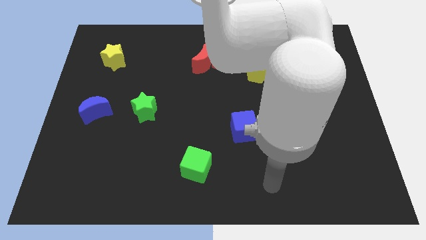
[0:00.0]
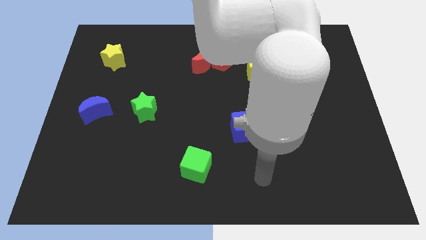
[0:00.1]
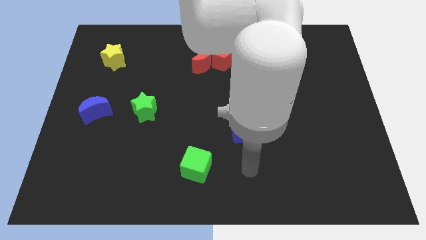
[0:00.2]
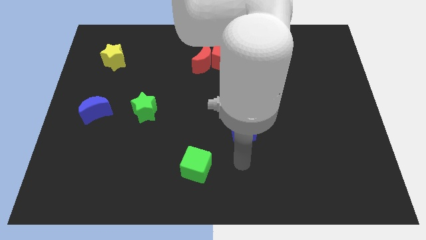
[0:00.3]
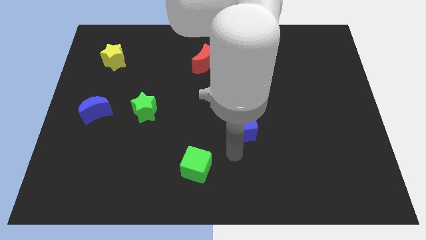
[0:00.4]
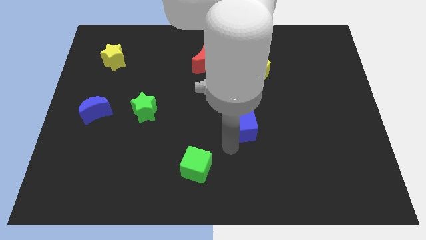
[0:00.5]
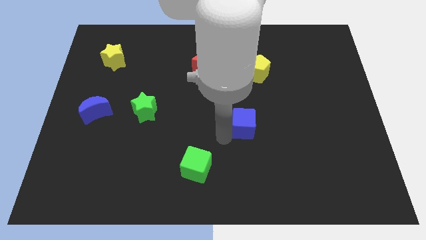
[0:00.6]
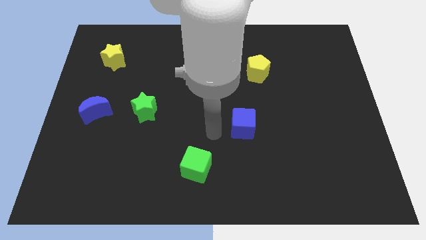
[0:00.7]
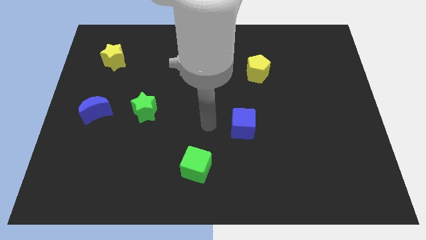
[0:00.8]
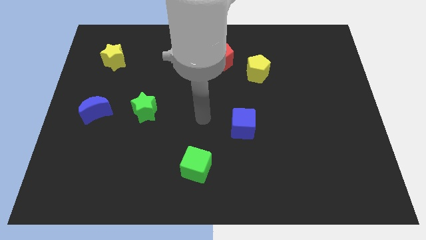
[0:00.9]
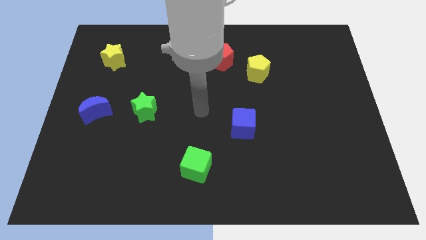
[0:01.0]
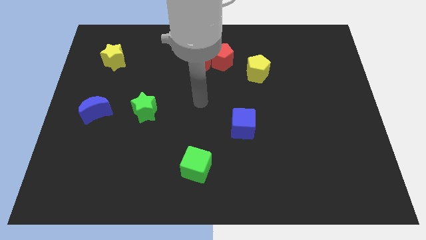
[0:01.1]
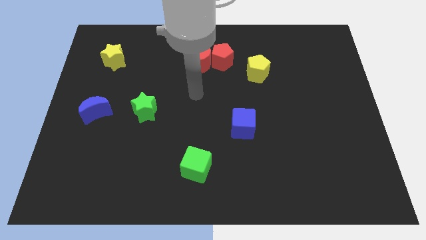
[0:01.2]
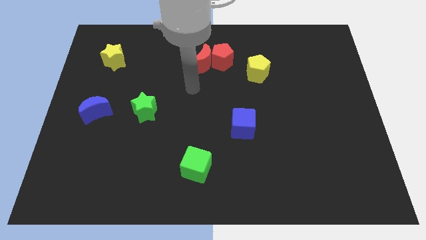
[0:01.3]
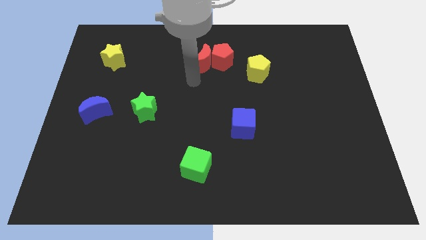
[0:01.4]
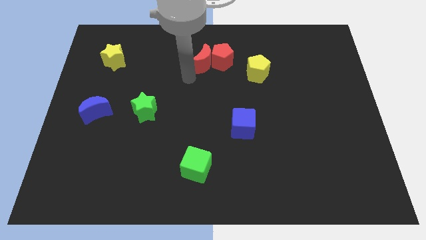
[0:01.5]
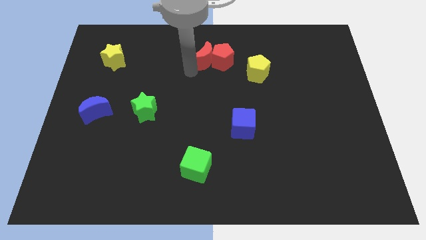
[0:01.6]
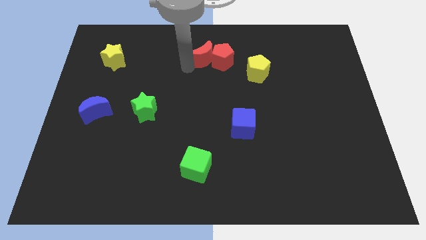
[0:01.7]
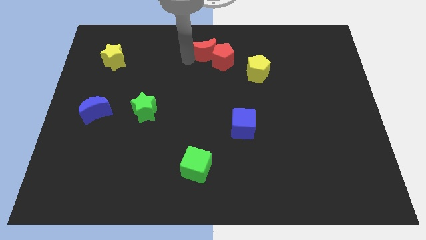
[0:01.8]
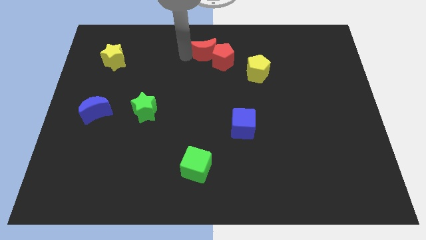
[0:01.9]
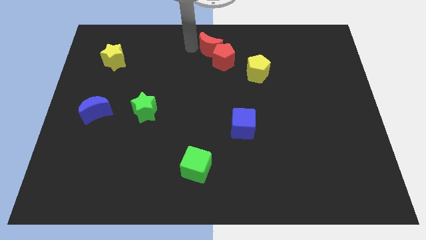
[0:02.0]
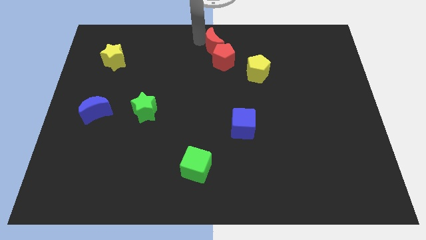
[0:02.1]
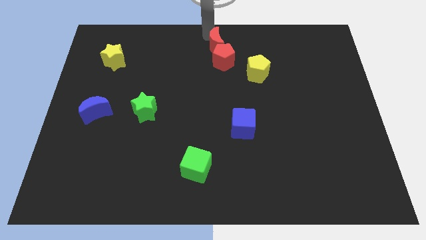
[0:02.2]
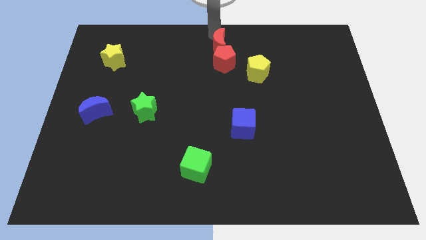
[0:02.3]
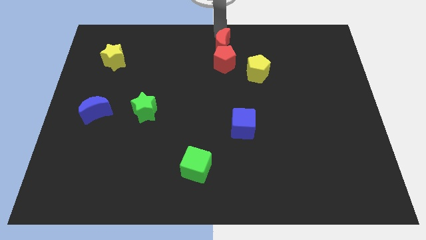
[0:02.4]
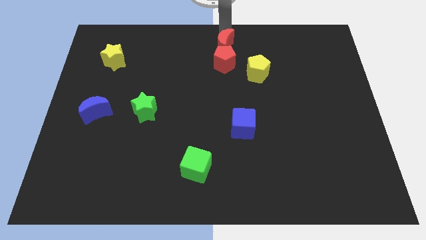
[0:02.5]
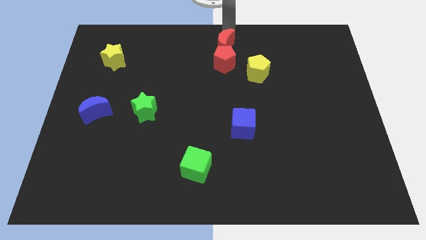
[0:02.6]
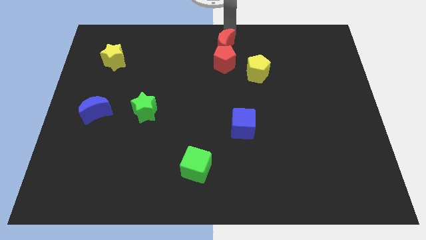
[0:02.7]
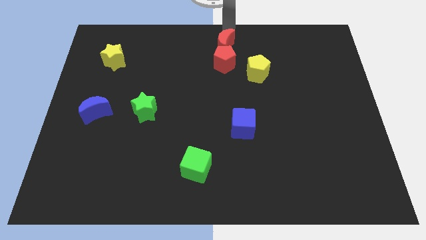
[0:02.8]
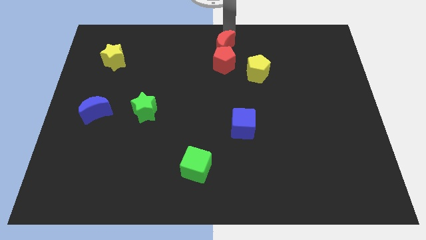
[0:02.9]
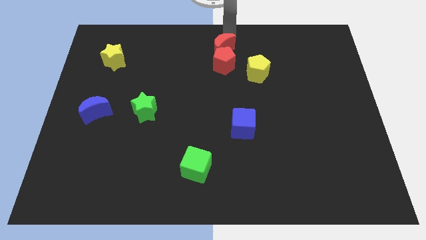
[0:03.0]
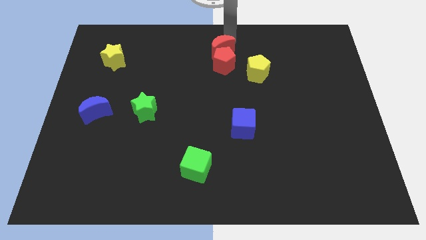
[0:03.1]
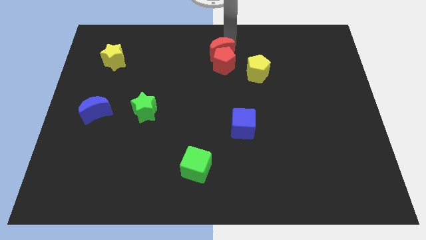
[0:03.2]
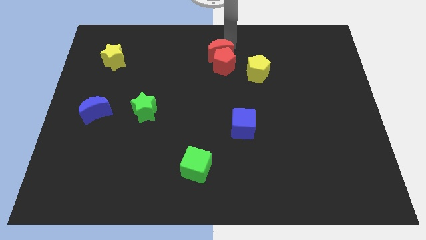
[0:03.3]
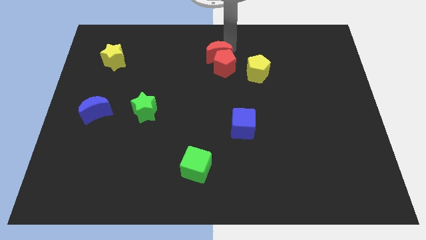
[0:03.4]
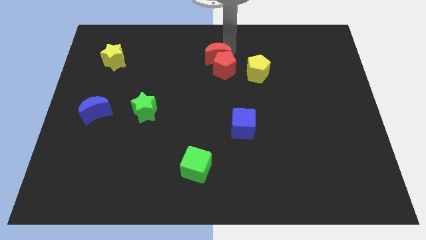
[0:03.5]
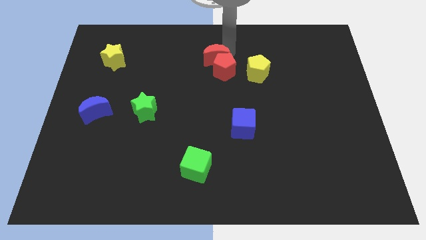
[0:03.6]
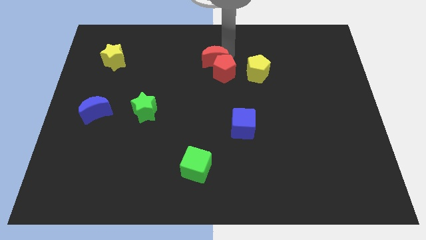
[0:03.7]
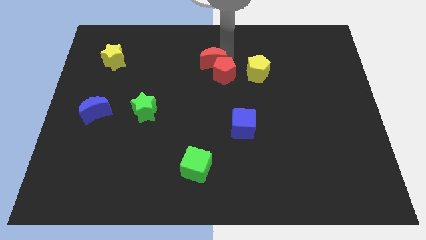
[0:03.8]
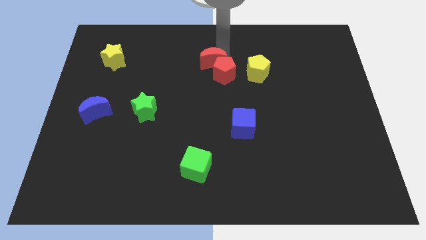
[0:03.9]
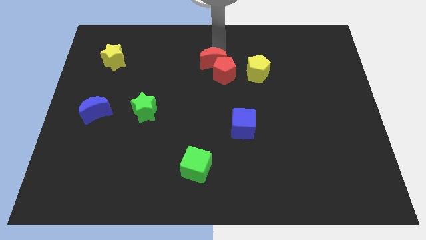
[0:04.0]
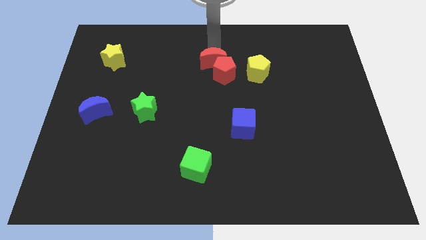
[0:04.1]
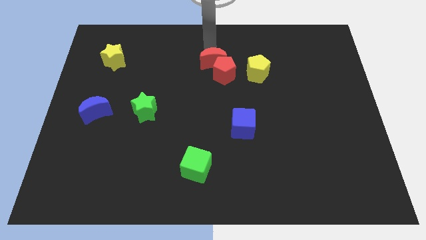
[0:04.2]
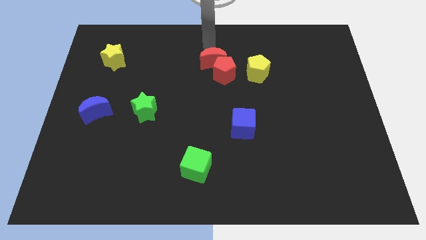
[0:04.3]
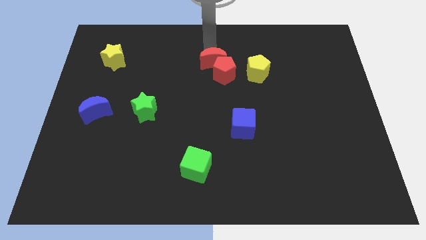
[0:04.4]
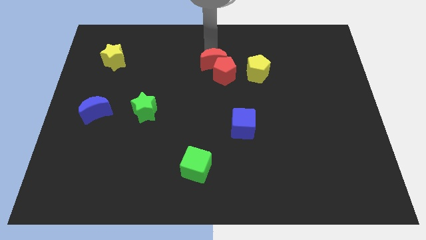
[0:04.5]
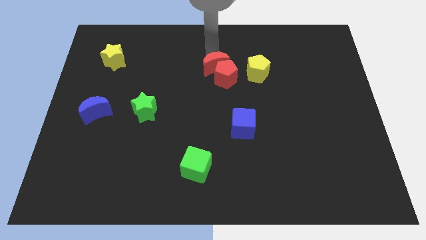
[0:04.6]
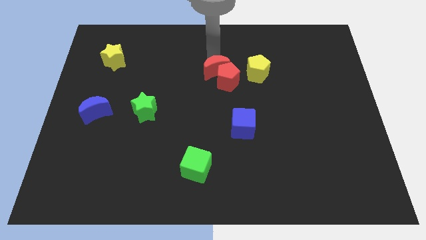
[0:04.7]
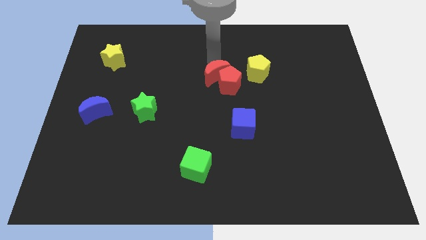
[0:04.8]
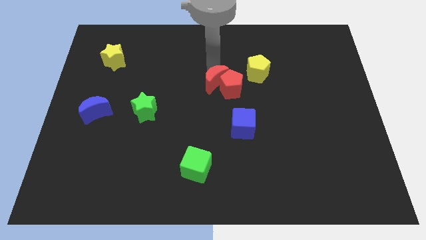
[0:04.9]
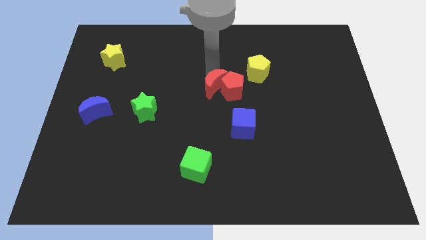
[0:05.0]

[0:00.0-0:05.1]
slightly slide the red moon diagonally downwards and right

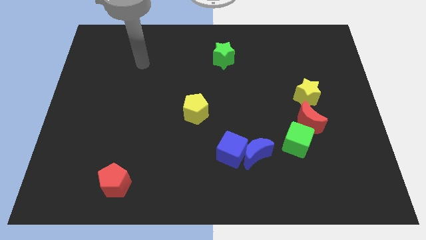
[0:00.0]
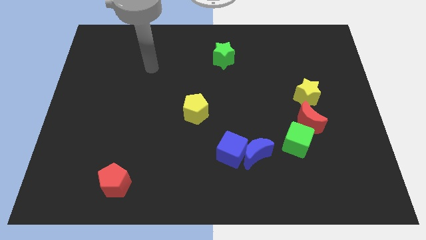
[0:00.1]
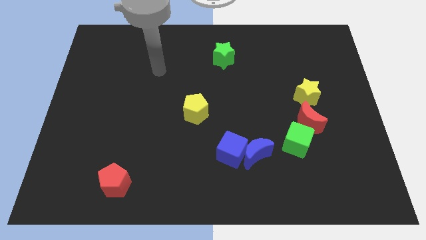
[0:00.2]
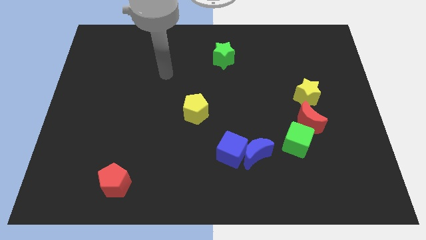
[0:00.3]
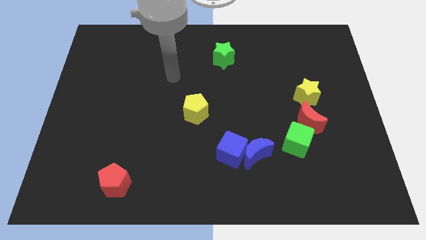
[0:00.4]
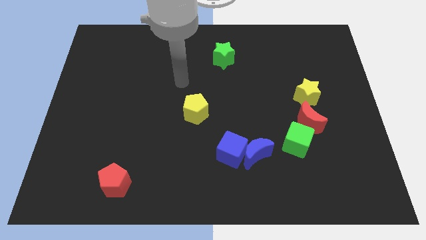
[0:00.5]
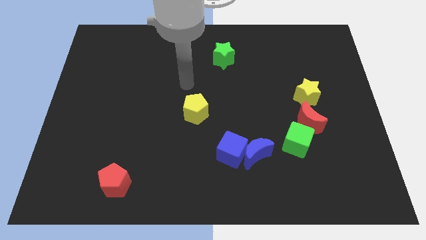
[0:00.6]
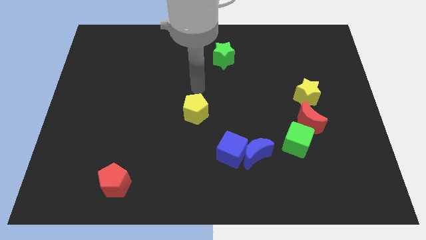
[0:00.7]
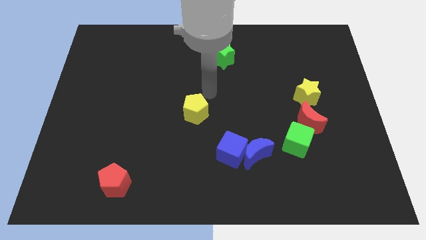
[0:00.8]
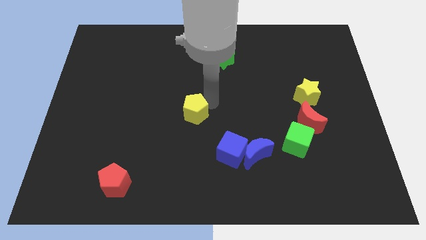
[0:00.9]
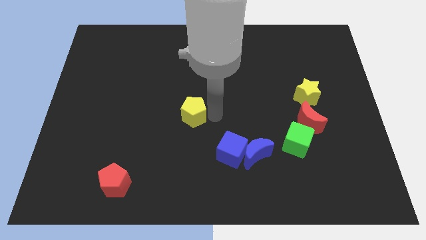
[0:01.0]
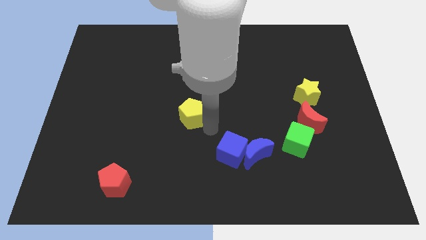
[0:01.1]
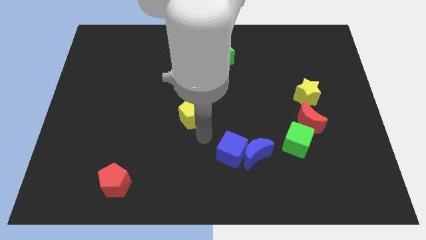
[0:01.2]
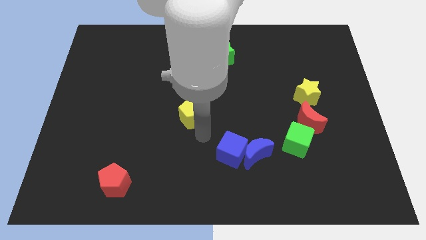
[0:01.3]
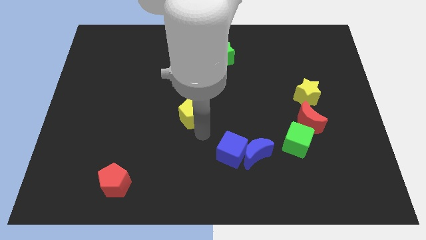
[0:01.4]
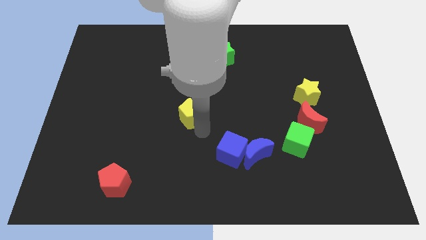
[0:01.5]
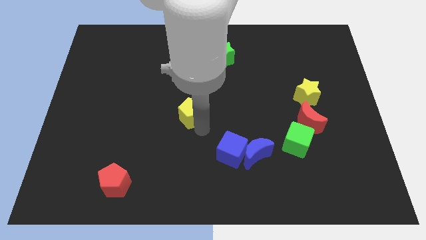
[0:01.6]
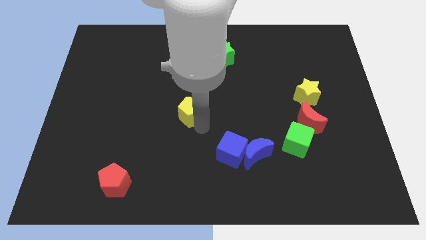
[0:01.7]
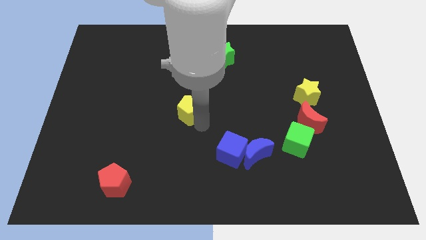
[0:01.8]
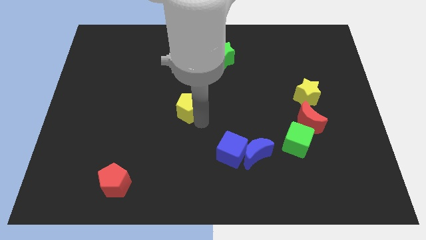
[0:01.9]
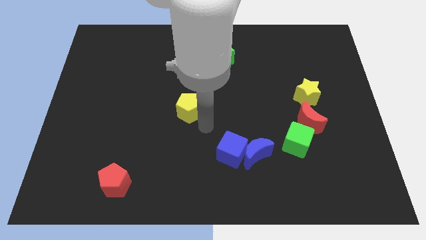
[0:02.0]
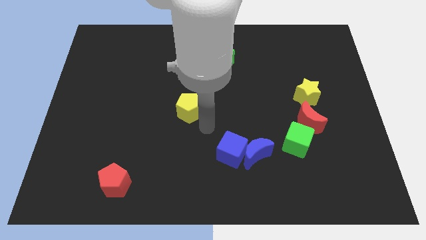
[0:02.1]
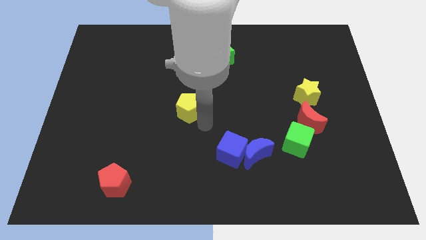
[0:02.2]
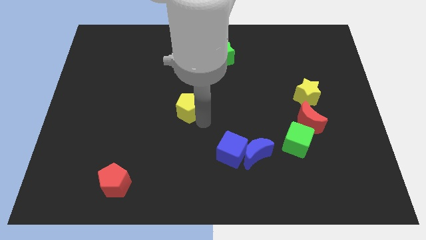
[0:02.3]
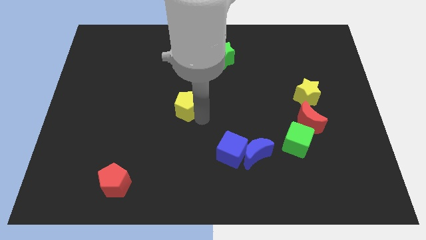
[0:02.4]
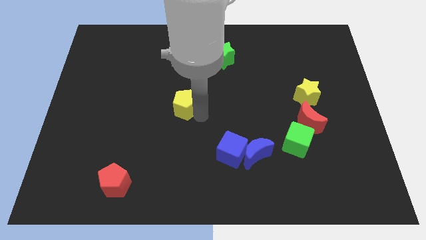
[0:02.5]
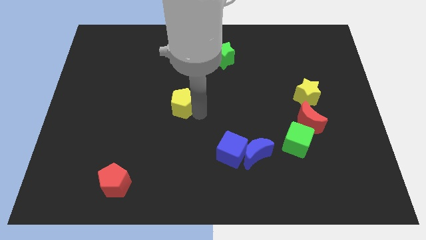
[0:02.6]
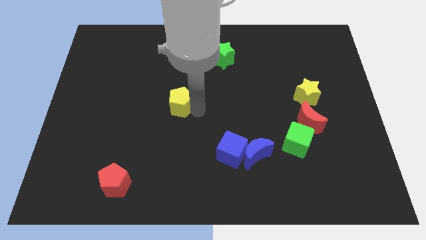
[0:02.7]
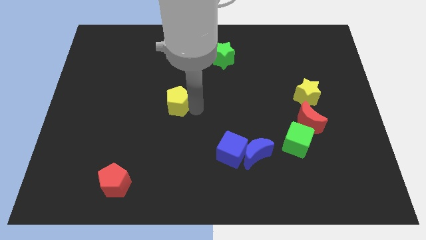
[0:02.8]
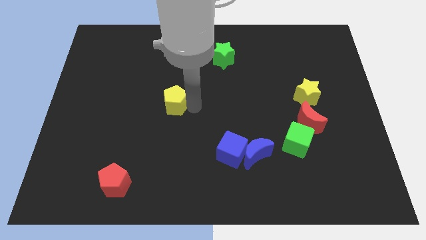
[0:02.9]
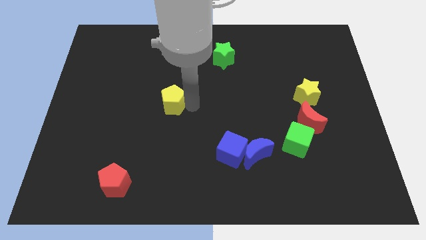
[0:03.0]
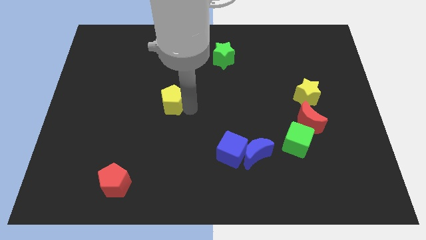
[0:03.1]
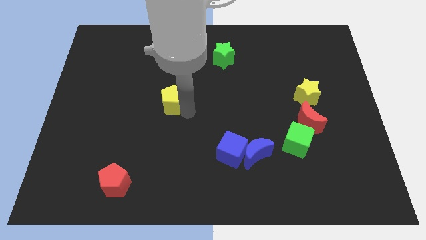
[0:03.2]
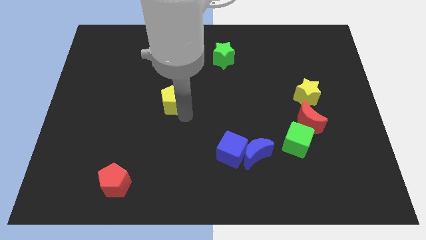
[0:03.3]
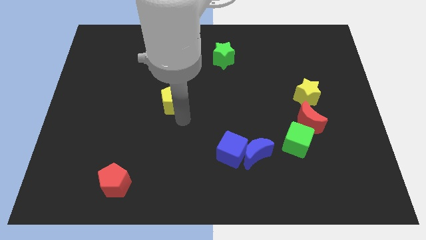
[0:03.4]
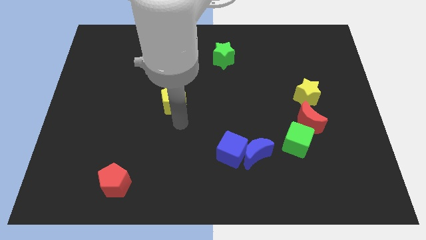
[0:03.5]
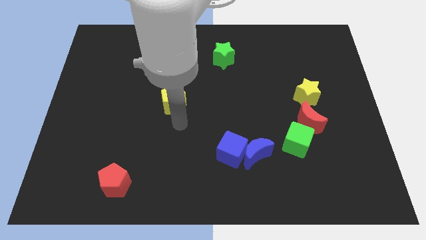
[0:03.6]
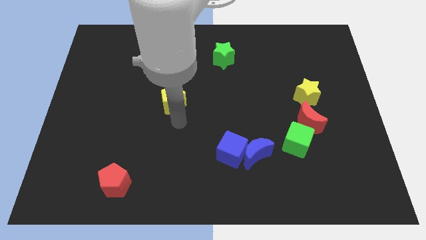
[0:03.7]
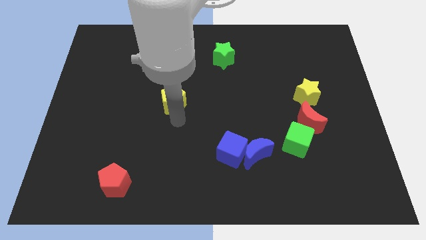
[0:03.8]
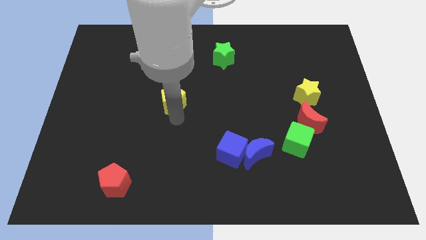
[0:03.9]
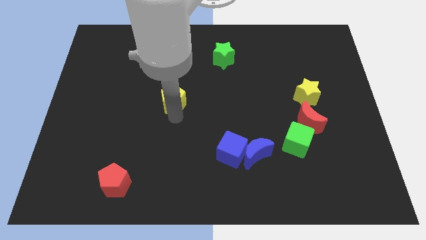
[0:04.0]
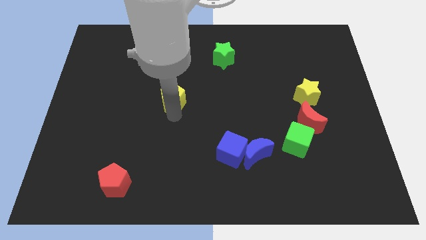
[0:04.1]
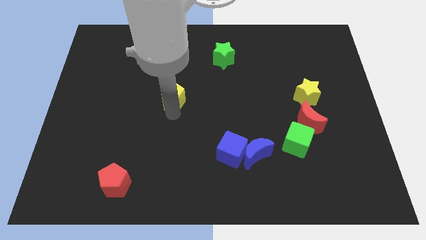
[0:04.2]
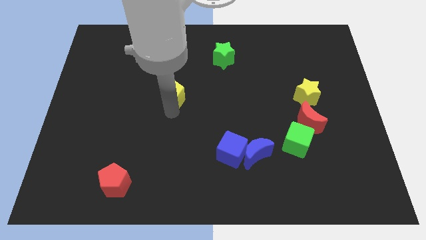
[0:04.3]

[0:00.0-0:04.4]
move the yellow pentagon a bit upwards and left diagonally
